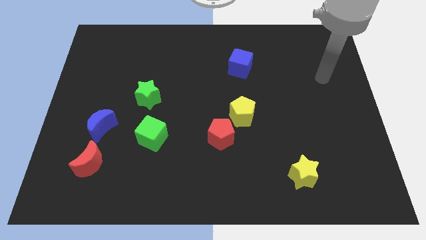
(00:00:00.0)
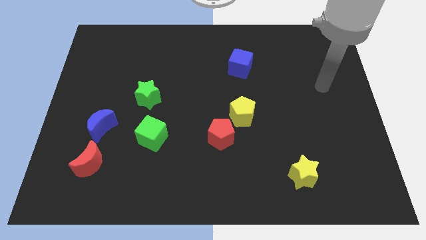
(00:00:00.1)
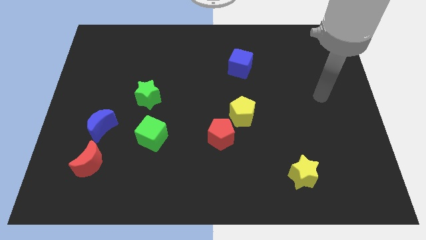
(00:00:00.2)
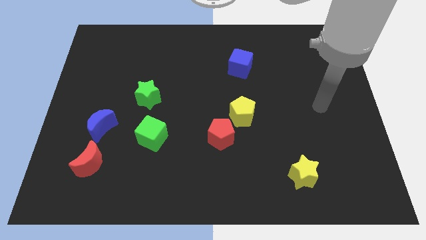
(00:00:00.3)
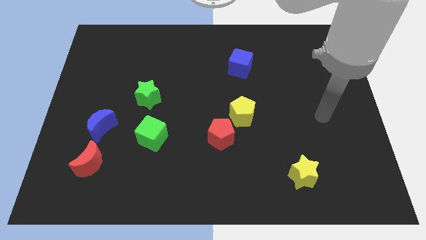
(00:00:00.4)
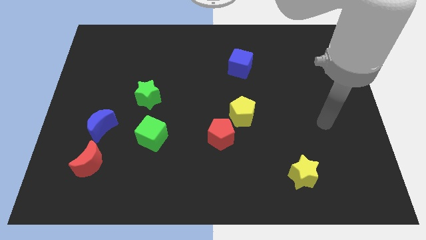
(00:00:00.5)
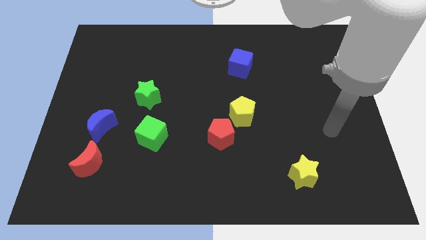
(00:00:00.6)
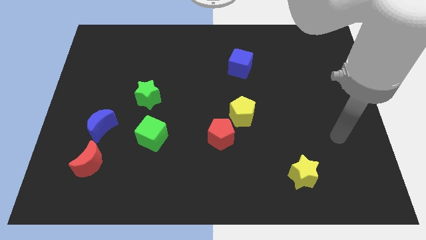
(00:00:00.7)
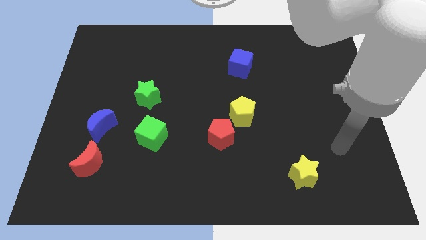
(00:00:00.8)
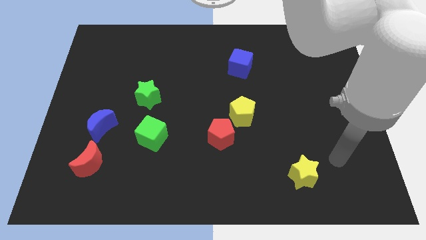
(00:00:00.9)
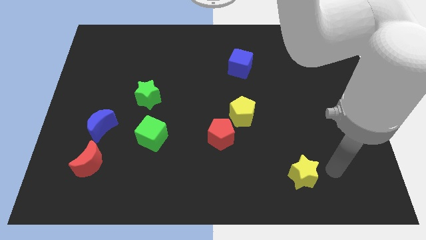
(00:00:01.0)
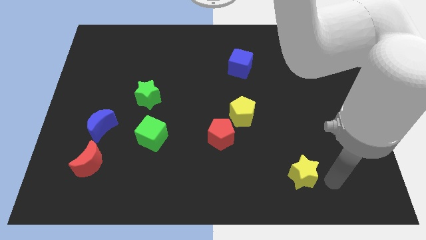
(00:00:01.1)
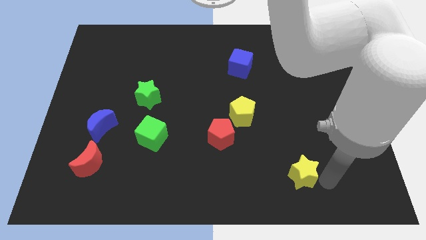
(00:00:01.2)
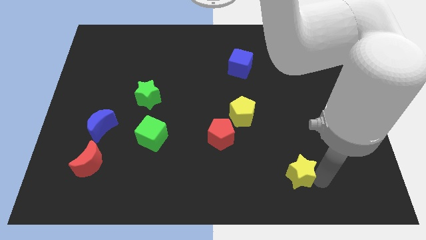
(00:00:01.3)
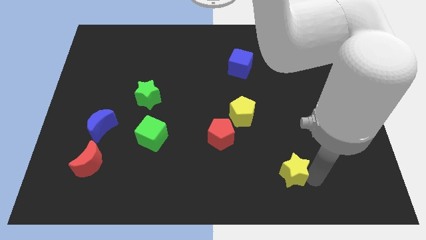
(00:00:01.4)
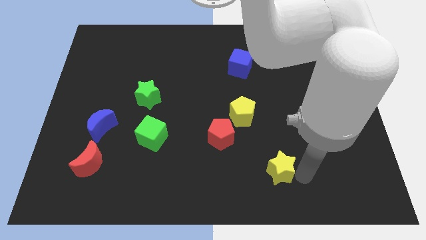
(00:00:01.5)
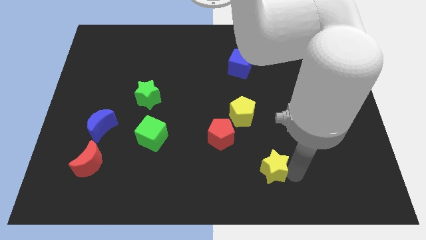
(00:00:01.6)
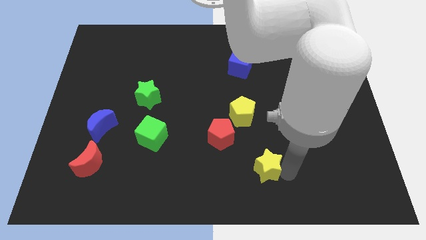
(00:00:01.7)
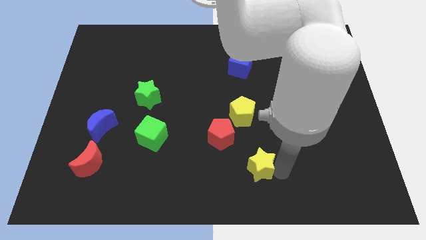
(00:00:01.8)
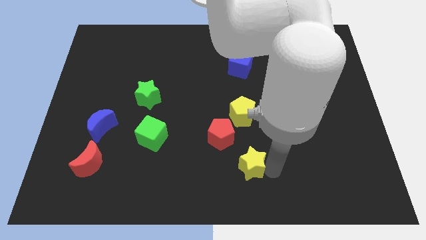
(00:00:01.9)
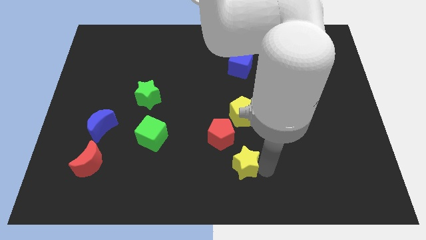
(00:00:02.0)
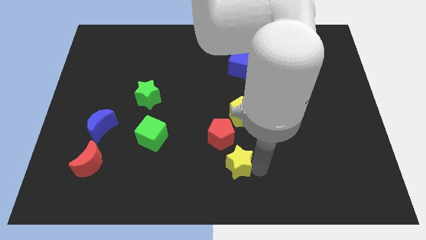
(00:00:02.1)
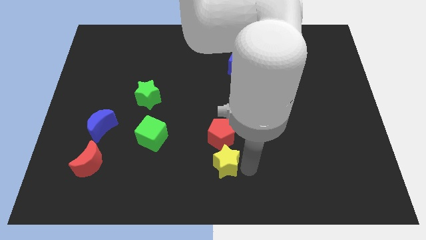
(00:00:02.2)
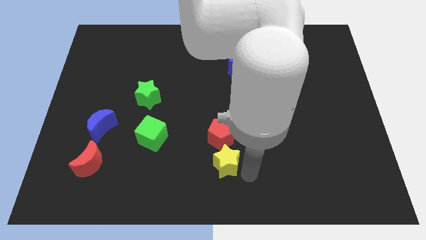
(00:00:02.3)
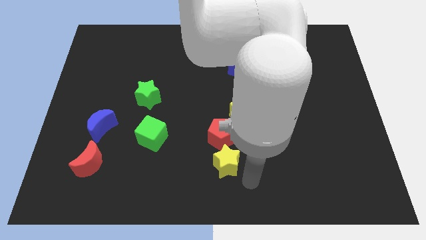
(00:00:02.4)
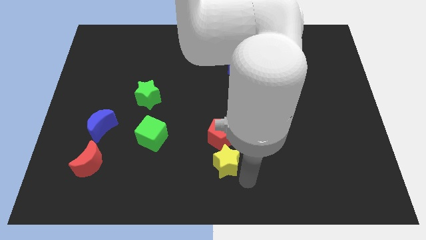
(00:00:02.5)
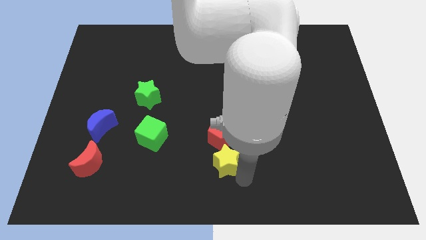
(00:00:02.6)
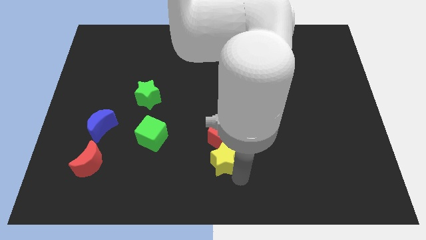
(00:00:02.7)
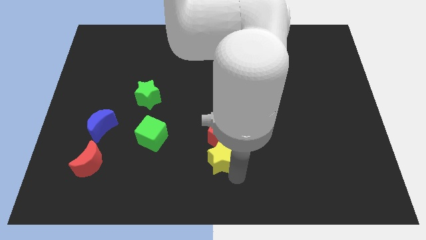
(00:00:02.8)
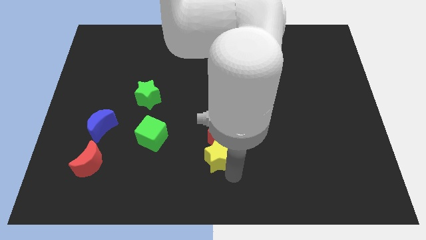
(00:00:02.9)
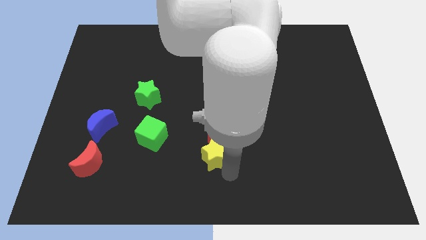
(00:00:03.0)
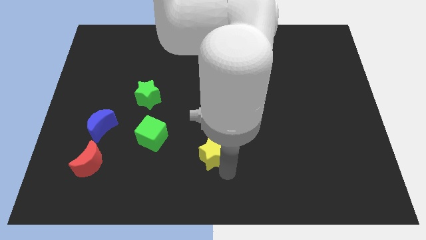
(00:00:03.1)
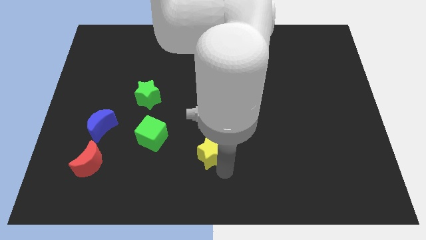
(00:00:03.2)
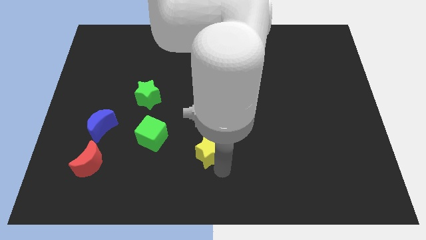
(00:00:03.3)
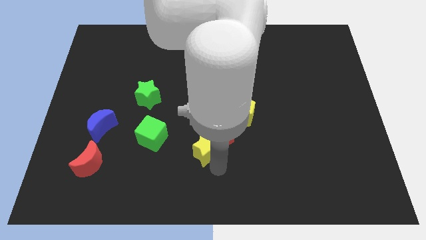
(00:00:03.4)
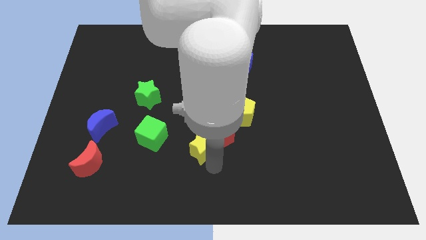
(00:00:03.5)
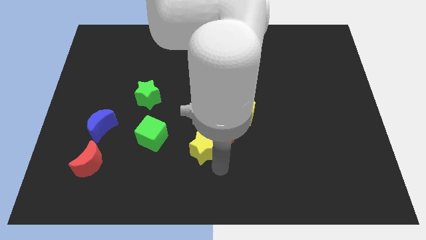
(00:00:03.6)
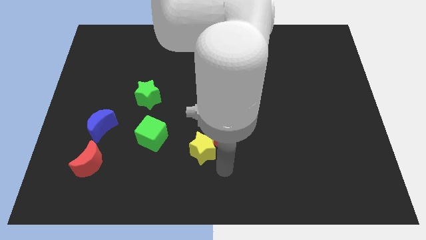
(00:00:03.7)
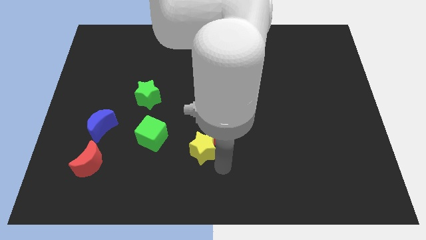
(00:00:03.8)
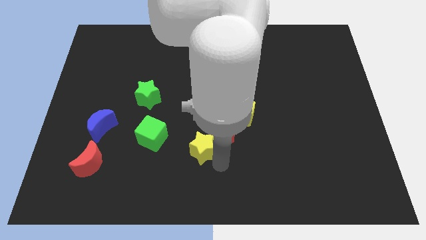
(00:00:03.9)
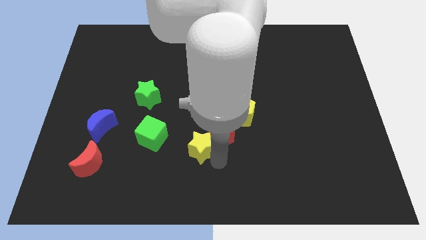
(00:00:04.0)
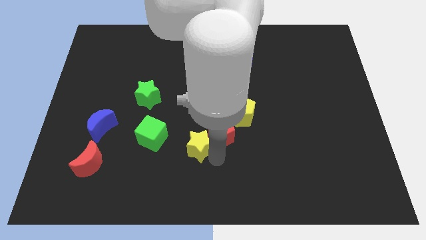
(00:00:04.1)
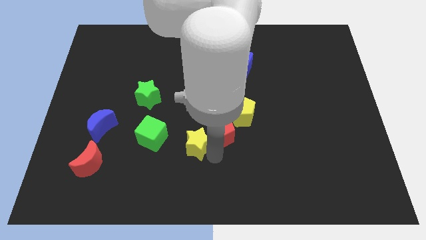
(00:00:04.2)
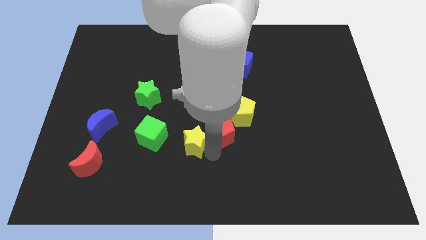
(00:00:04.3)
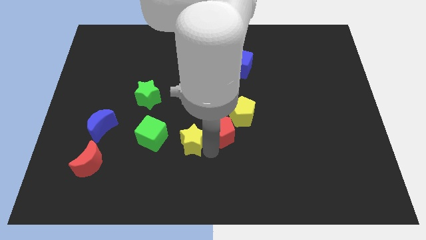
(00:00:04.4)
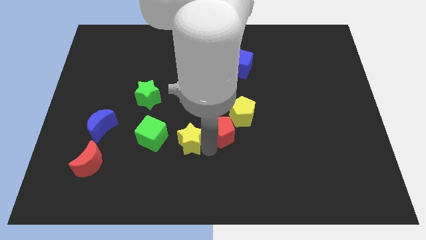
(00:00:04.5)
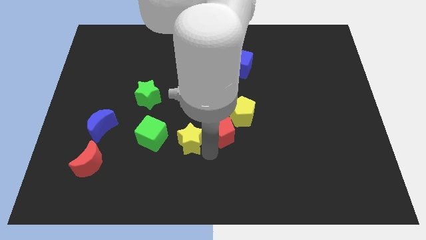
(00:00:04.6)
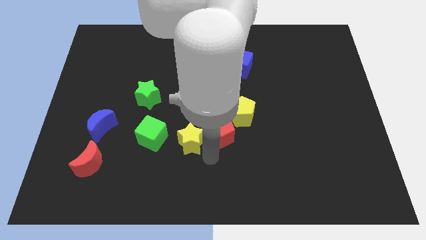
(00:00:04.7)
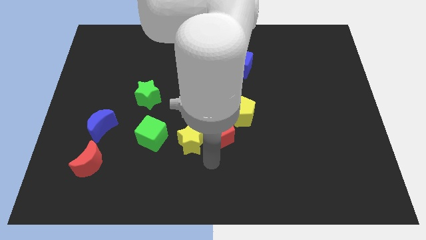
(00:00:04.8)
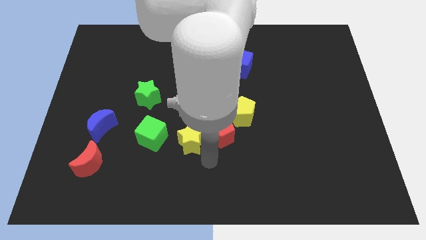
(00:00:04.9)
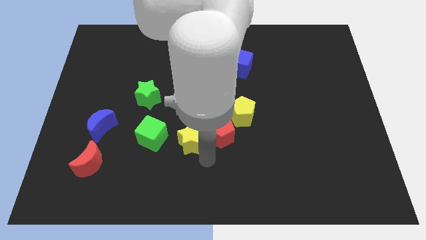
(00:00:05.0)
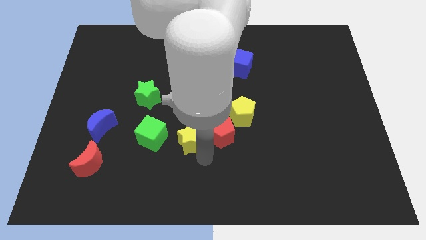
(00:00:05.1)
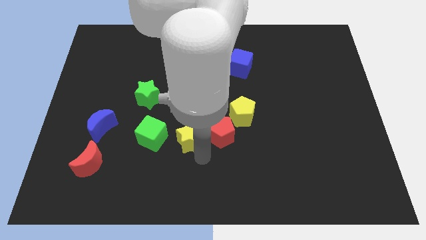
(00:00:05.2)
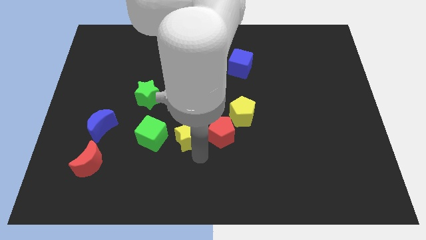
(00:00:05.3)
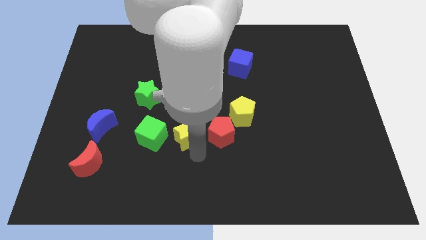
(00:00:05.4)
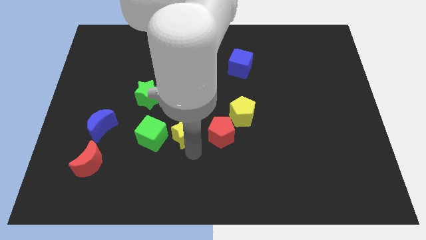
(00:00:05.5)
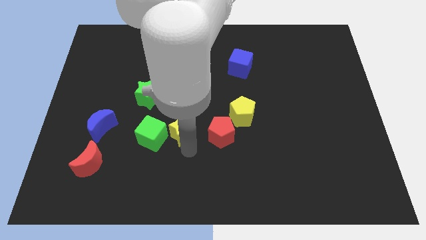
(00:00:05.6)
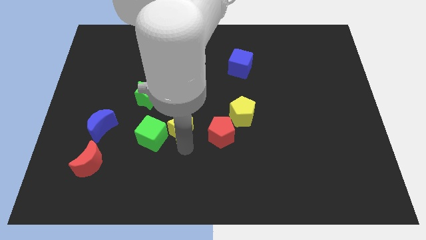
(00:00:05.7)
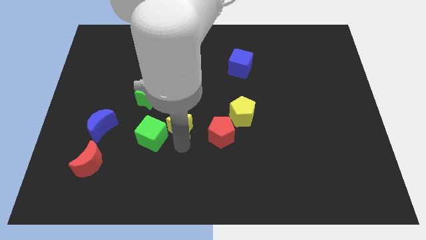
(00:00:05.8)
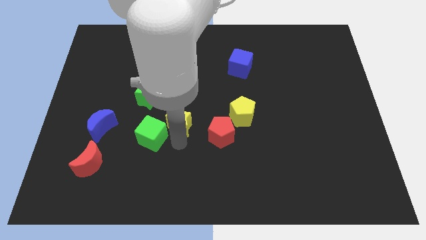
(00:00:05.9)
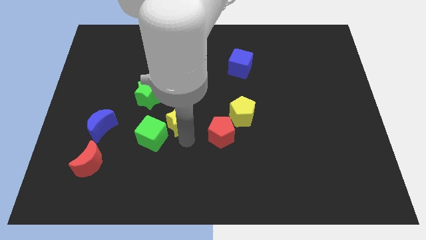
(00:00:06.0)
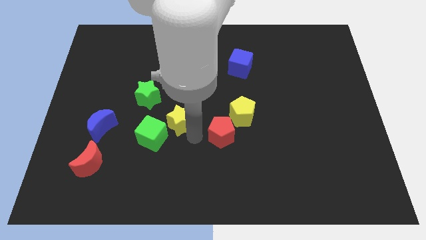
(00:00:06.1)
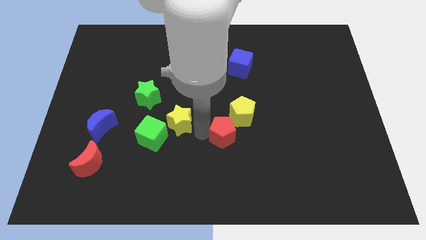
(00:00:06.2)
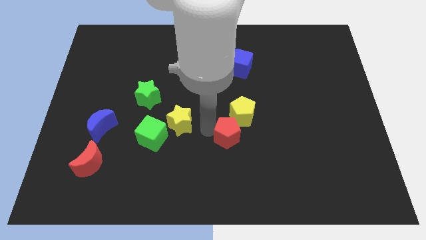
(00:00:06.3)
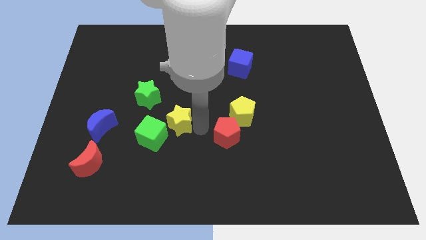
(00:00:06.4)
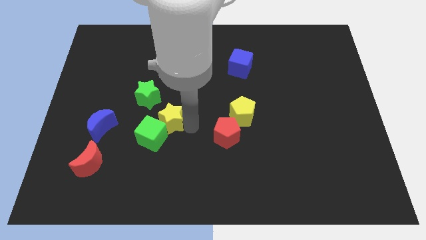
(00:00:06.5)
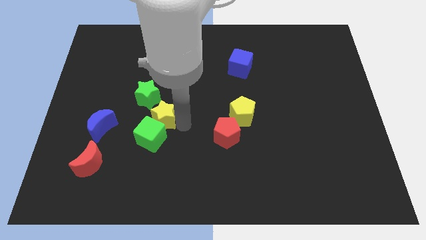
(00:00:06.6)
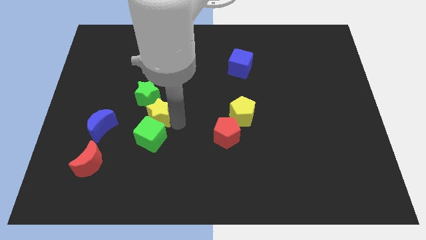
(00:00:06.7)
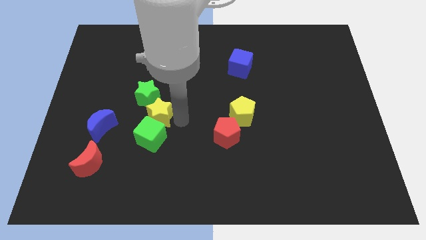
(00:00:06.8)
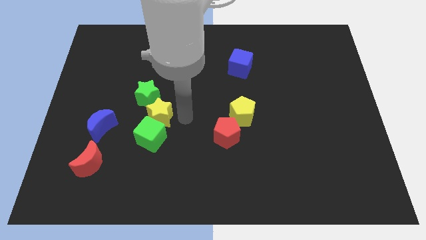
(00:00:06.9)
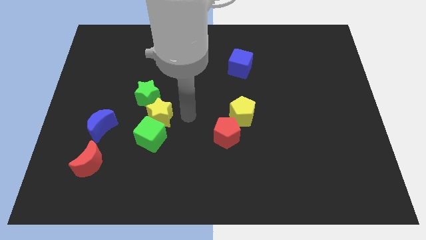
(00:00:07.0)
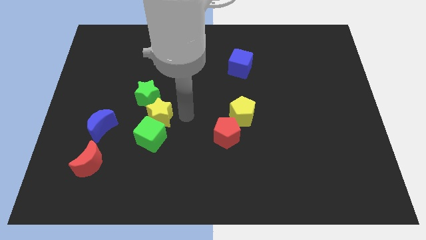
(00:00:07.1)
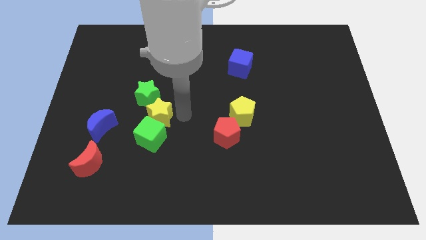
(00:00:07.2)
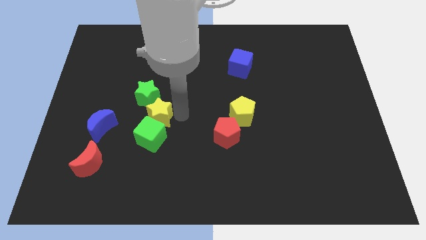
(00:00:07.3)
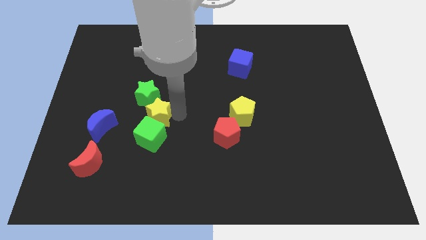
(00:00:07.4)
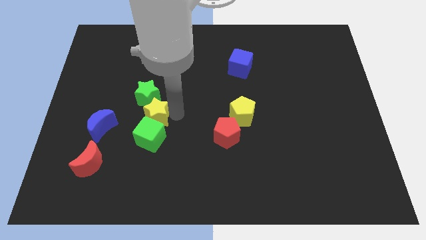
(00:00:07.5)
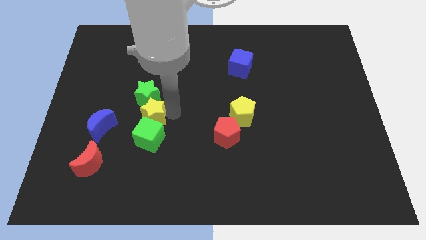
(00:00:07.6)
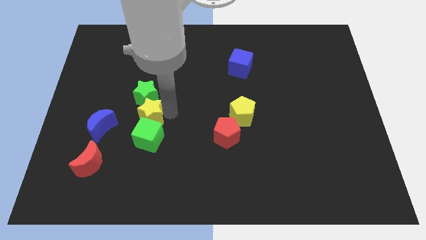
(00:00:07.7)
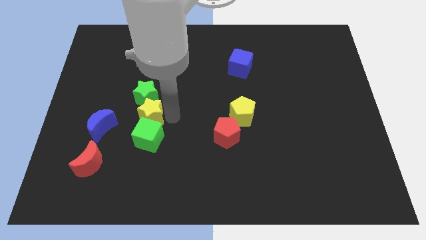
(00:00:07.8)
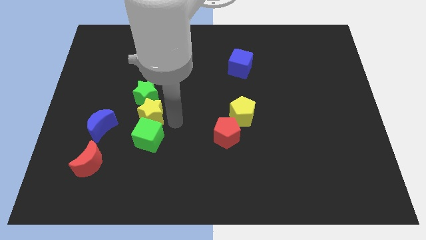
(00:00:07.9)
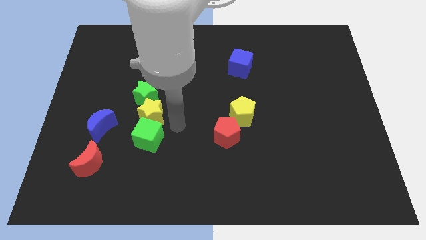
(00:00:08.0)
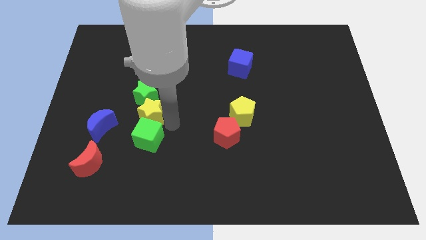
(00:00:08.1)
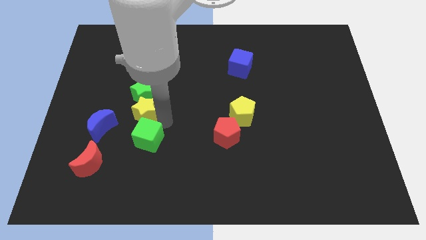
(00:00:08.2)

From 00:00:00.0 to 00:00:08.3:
move the yellow star diagonally up and to the right of the blue moon
